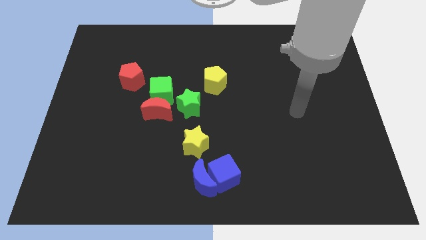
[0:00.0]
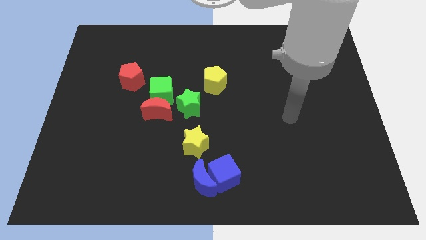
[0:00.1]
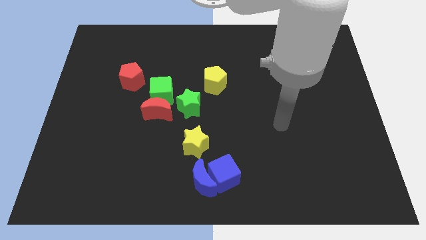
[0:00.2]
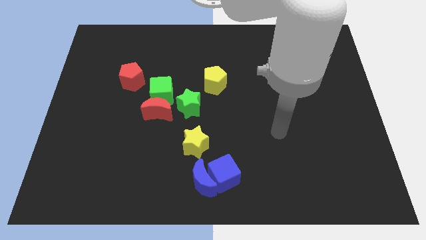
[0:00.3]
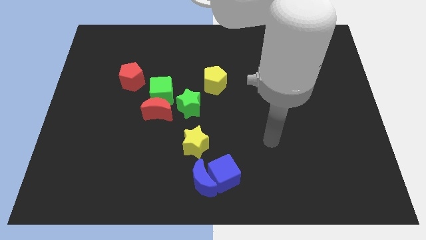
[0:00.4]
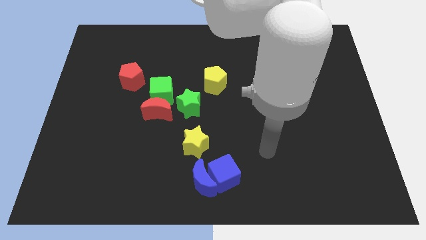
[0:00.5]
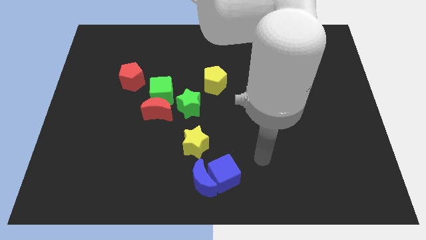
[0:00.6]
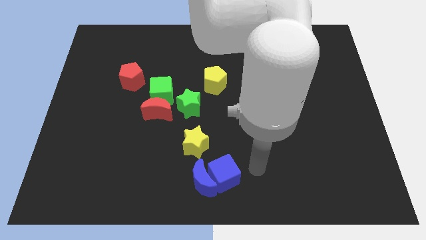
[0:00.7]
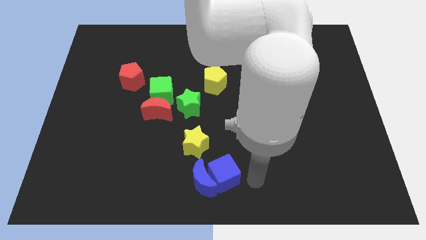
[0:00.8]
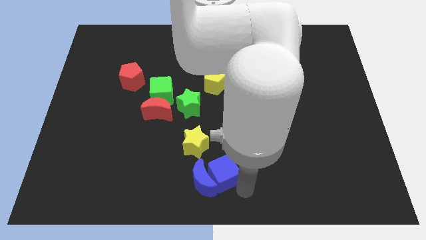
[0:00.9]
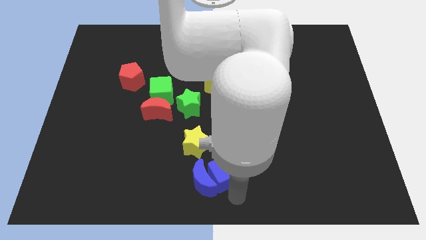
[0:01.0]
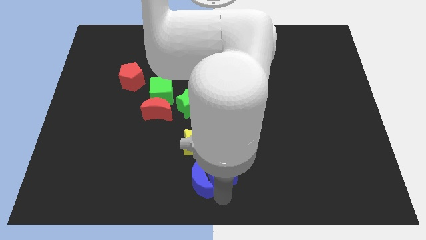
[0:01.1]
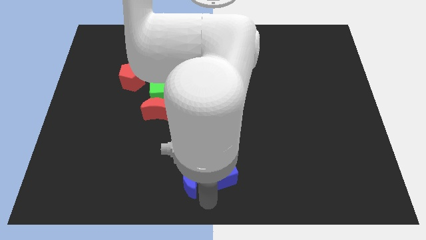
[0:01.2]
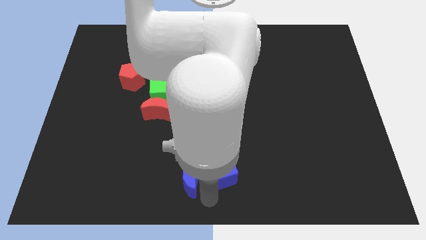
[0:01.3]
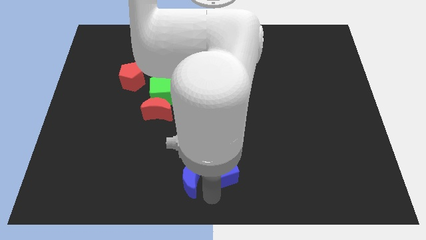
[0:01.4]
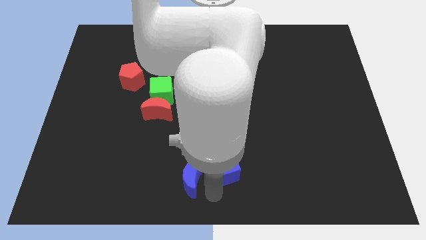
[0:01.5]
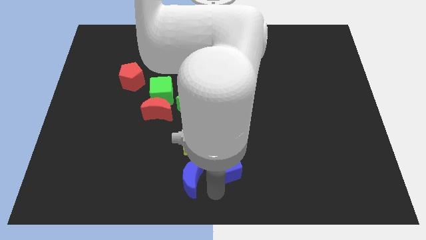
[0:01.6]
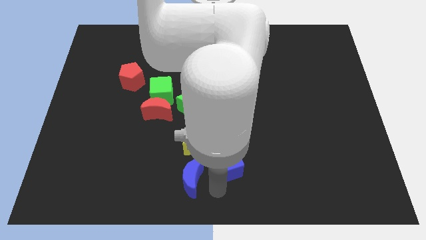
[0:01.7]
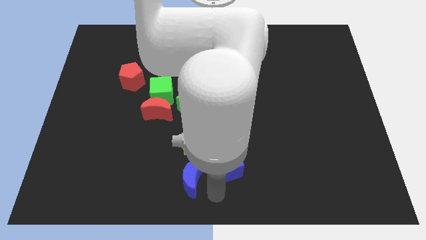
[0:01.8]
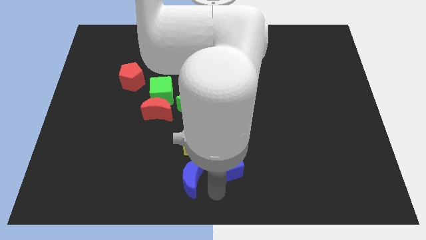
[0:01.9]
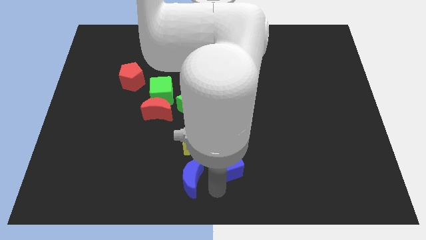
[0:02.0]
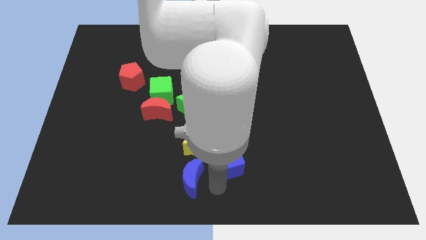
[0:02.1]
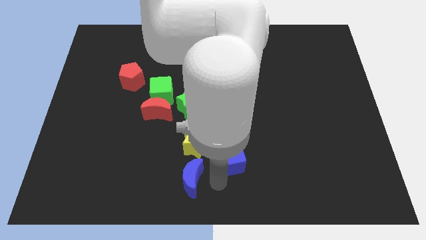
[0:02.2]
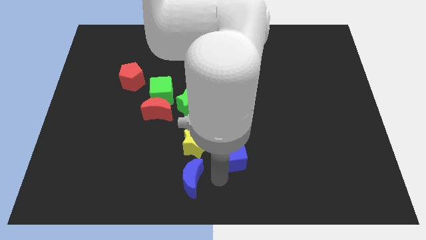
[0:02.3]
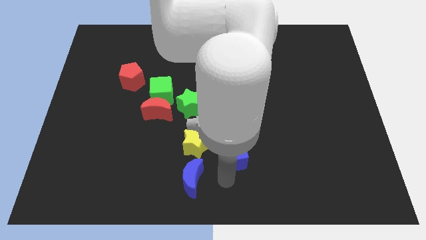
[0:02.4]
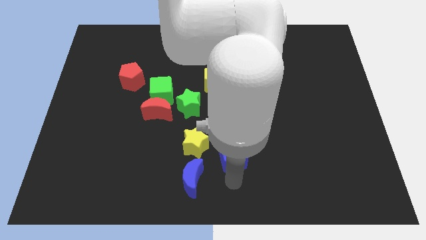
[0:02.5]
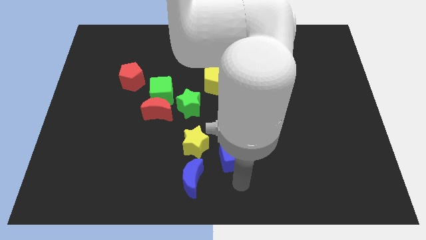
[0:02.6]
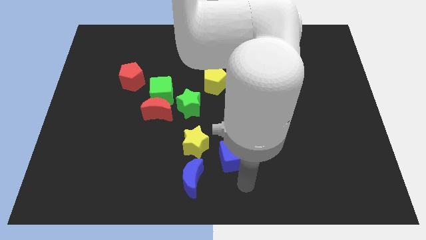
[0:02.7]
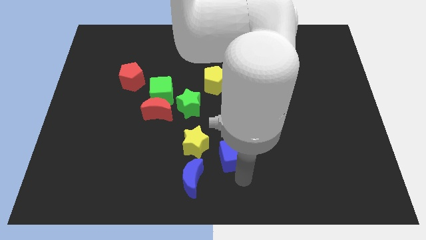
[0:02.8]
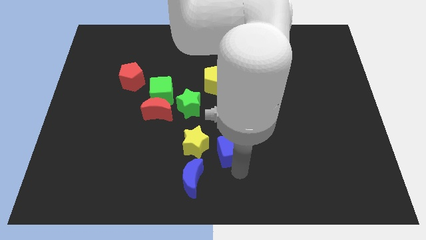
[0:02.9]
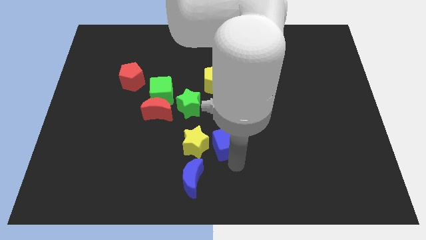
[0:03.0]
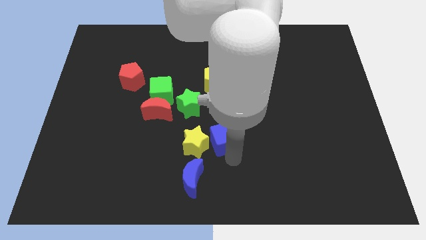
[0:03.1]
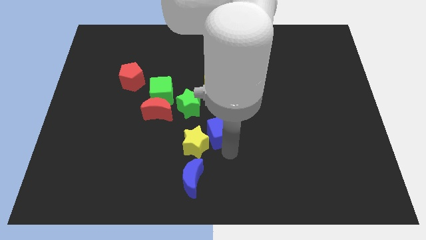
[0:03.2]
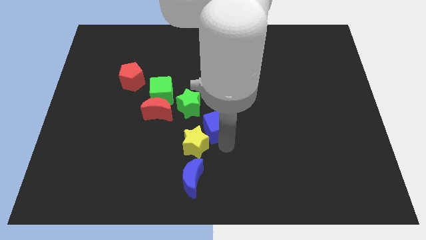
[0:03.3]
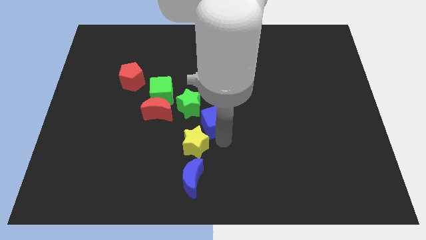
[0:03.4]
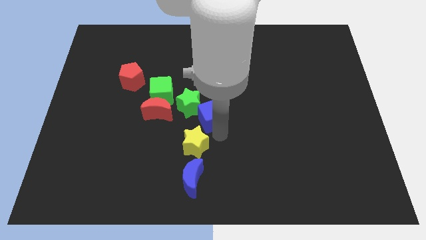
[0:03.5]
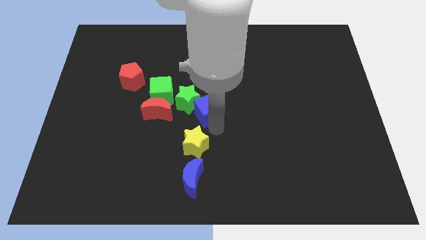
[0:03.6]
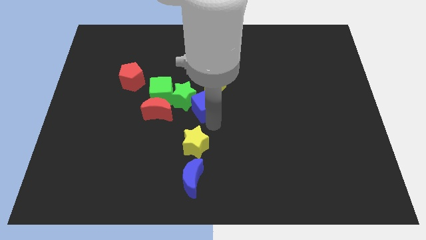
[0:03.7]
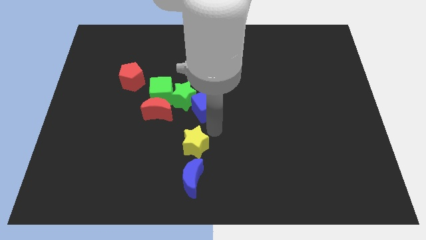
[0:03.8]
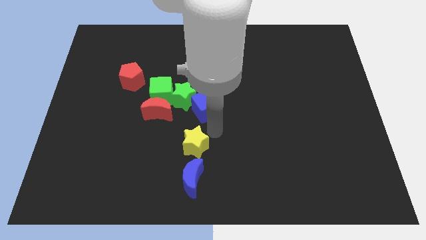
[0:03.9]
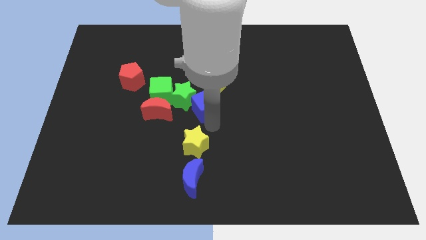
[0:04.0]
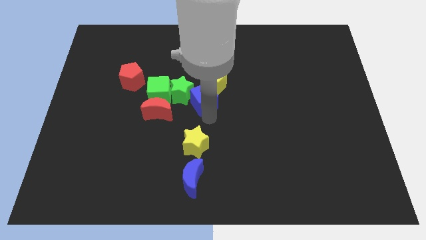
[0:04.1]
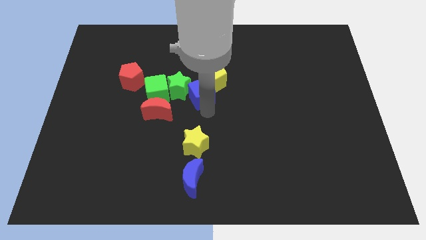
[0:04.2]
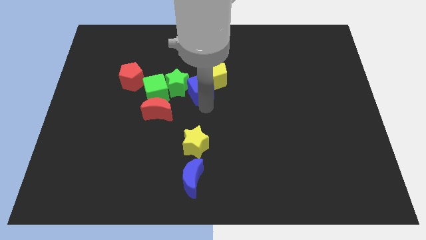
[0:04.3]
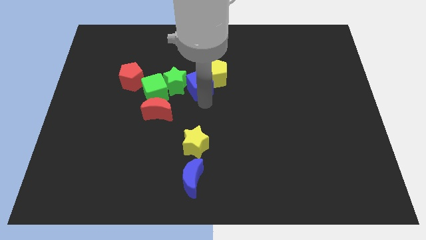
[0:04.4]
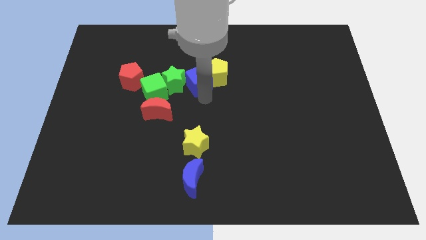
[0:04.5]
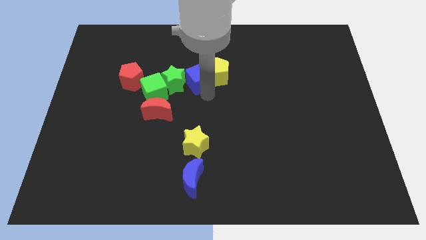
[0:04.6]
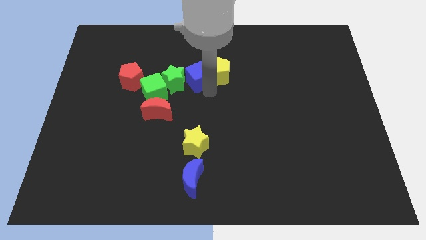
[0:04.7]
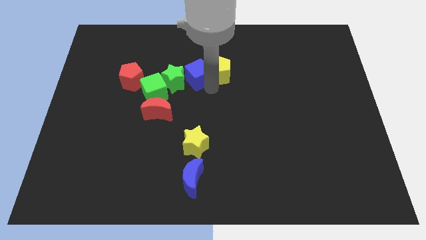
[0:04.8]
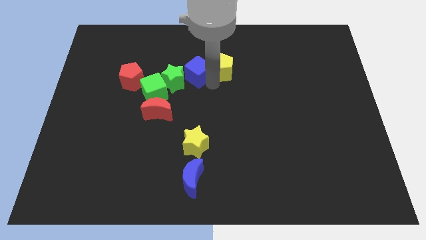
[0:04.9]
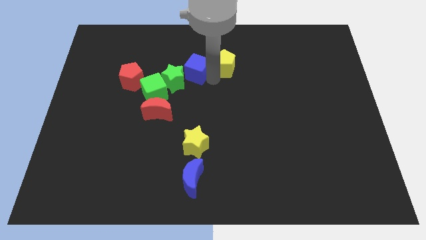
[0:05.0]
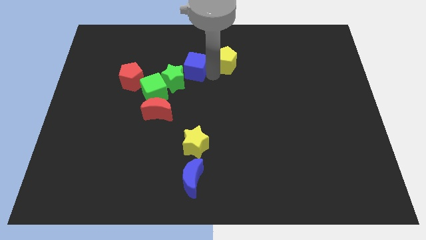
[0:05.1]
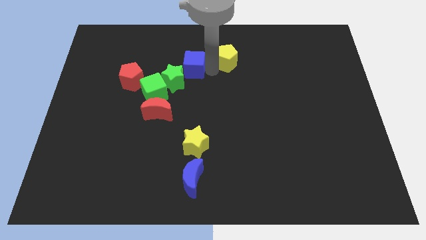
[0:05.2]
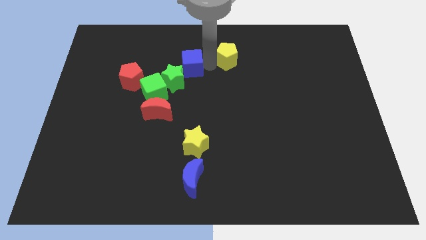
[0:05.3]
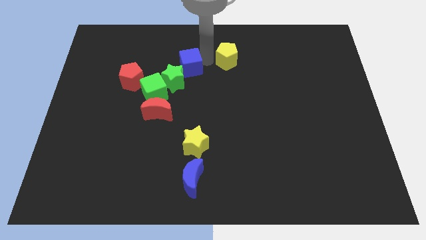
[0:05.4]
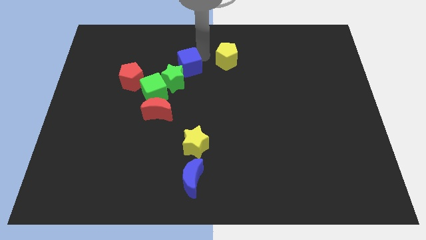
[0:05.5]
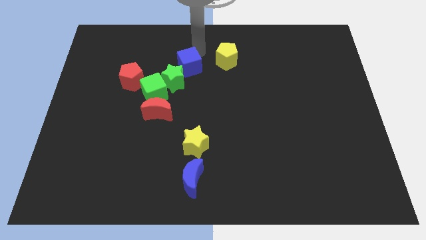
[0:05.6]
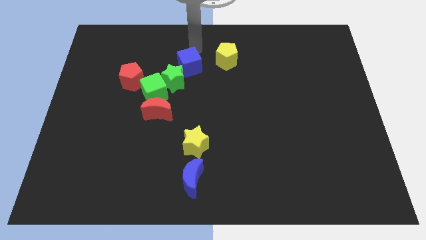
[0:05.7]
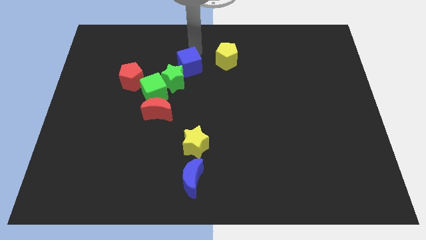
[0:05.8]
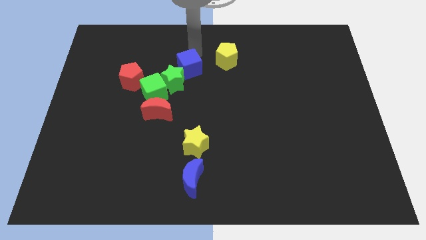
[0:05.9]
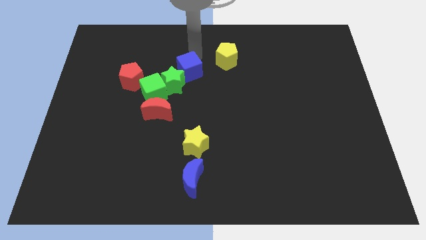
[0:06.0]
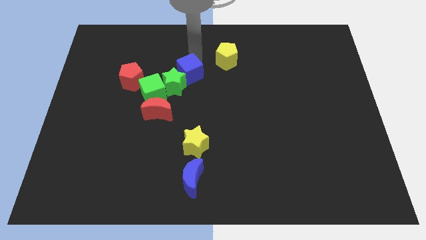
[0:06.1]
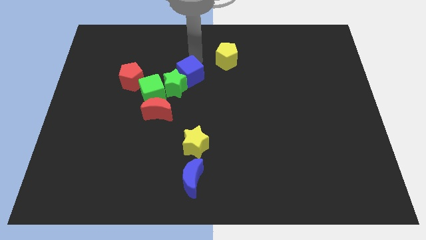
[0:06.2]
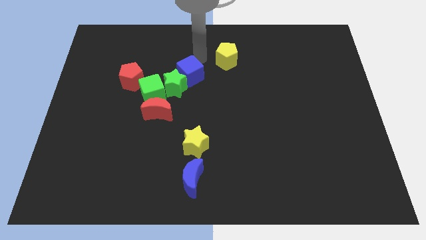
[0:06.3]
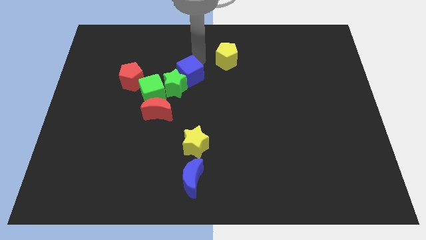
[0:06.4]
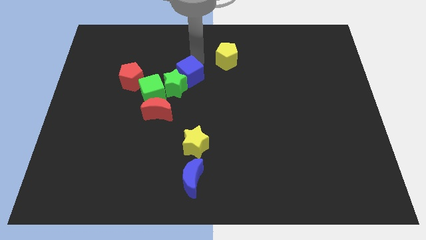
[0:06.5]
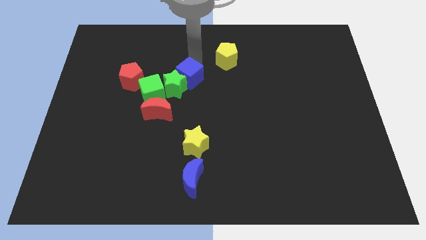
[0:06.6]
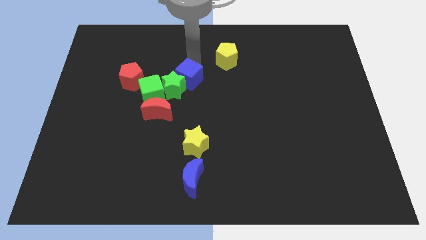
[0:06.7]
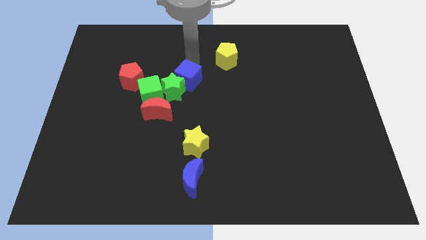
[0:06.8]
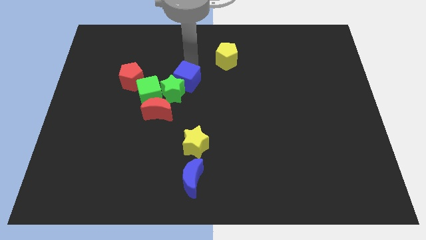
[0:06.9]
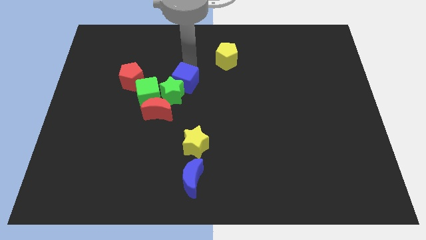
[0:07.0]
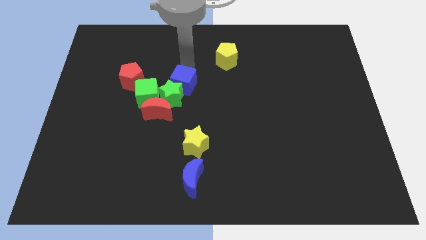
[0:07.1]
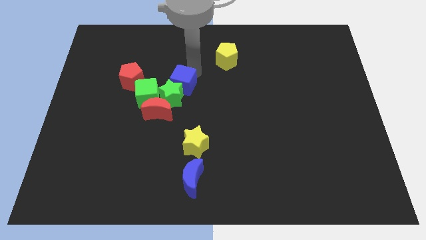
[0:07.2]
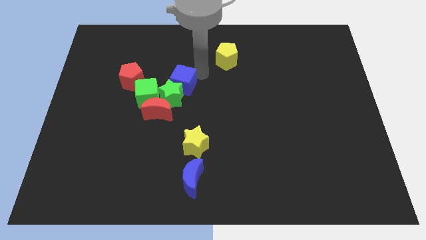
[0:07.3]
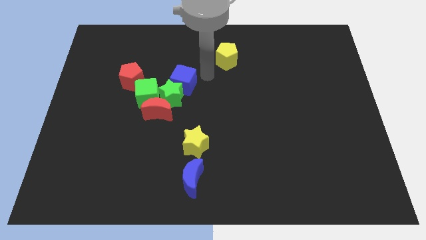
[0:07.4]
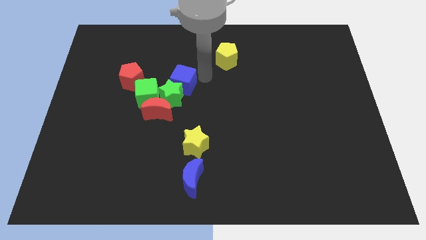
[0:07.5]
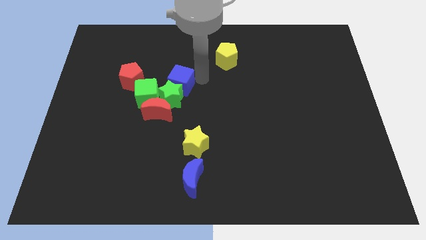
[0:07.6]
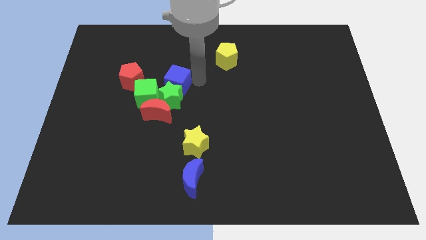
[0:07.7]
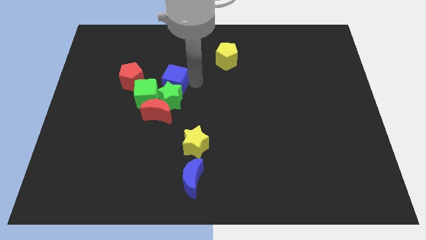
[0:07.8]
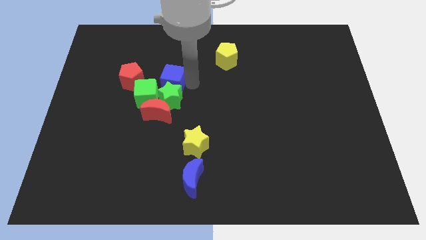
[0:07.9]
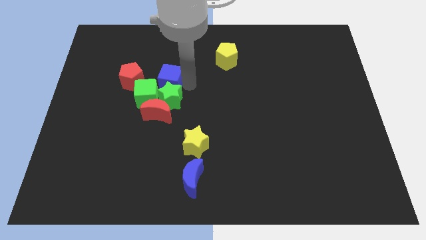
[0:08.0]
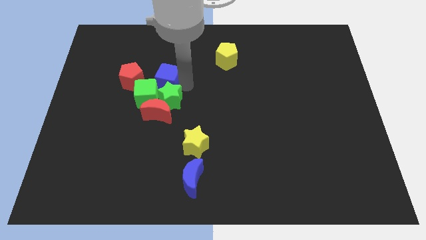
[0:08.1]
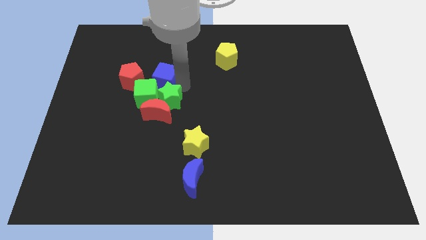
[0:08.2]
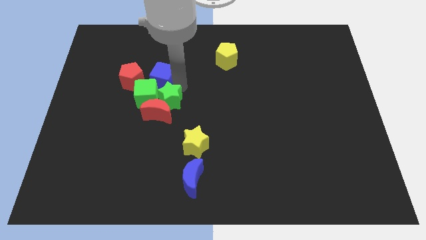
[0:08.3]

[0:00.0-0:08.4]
push the blue cube to the green cube
